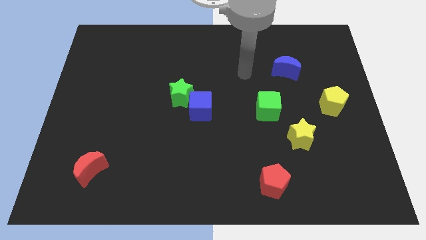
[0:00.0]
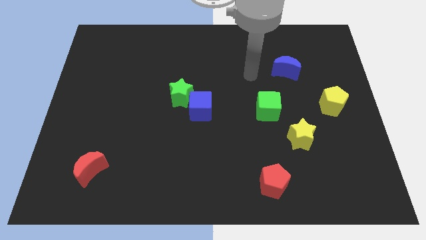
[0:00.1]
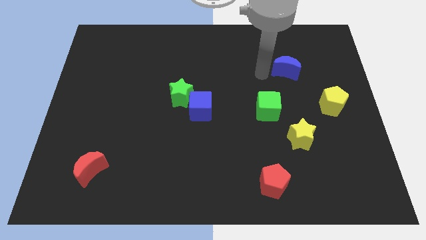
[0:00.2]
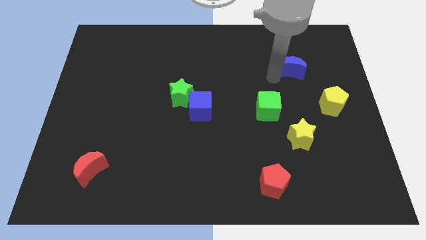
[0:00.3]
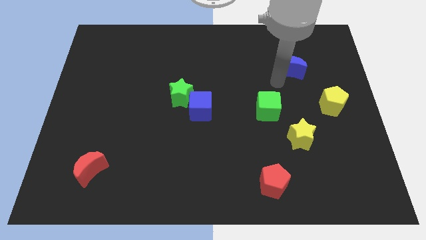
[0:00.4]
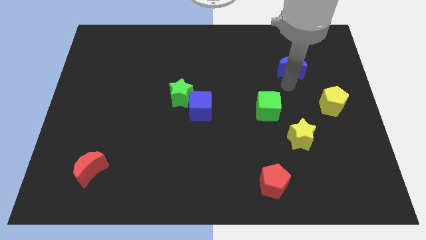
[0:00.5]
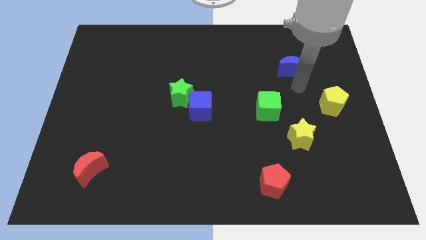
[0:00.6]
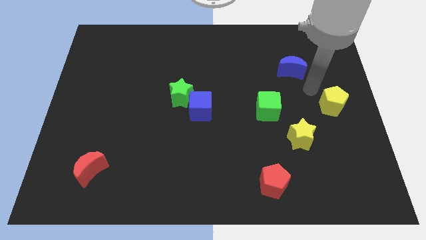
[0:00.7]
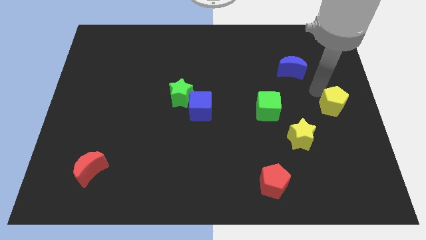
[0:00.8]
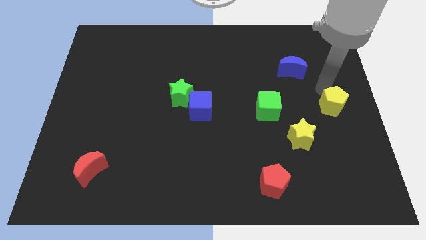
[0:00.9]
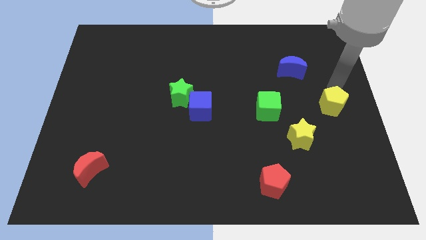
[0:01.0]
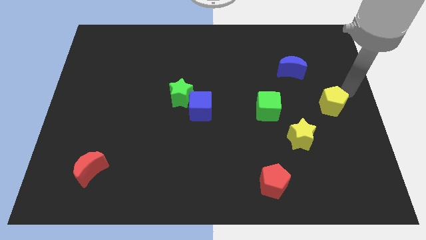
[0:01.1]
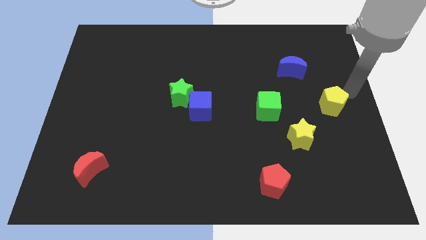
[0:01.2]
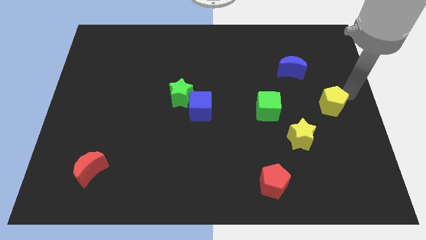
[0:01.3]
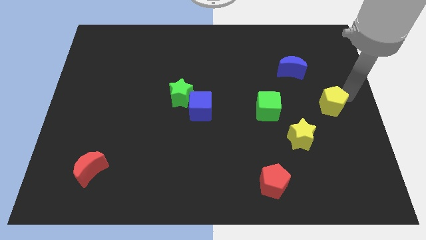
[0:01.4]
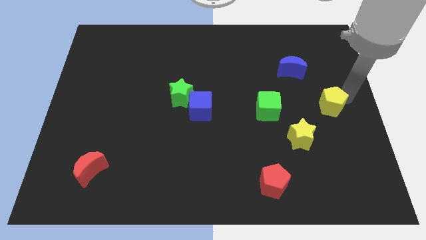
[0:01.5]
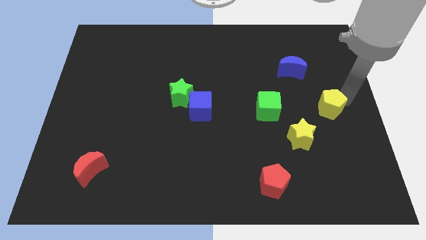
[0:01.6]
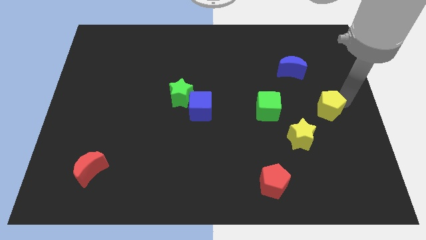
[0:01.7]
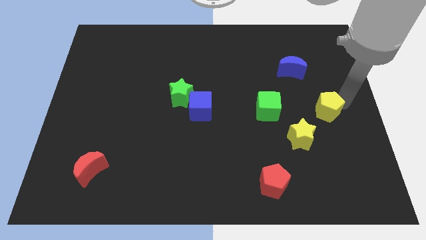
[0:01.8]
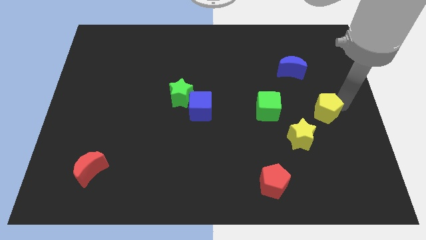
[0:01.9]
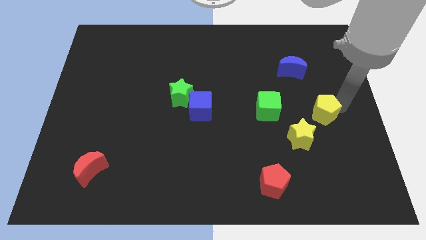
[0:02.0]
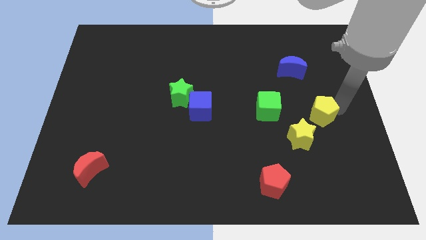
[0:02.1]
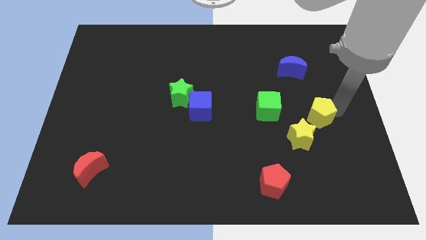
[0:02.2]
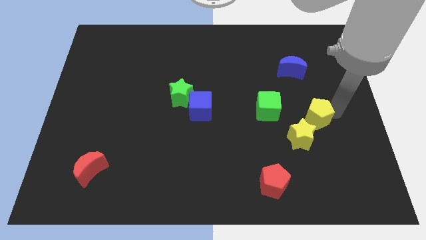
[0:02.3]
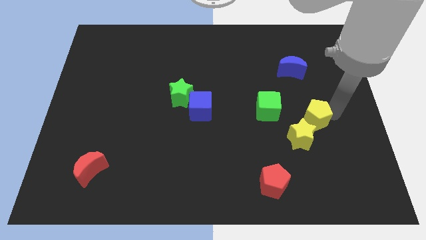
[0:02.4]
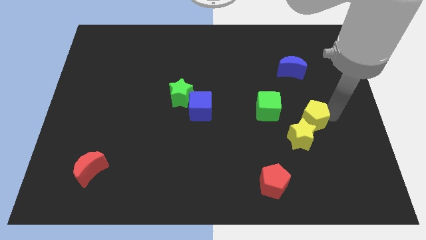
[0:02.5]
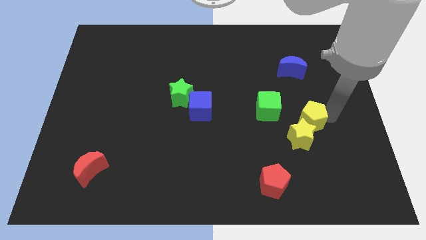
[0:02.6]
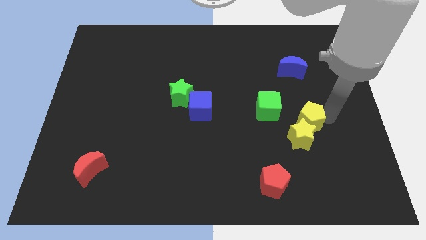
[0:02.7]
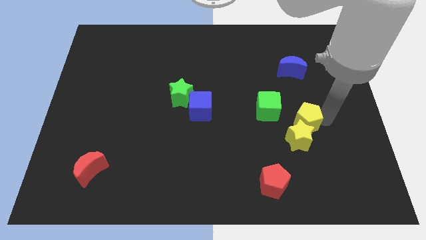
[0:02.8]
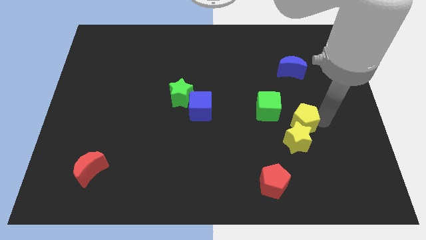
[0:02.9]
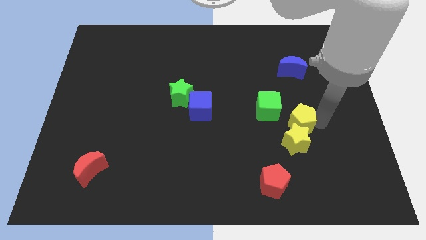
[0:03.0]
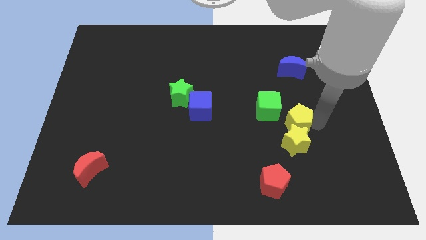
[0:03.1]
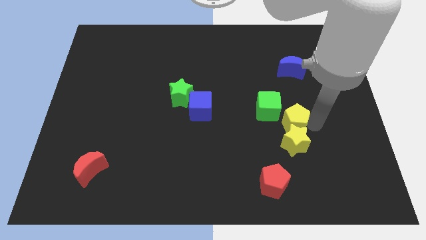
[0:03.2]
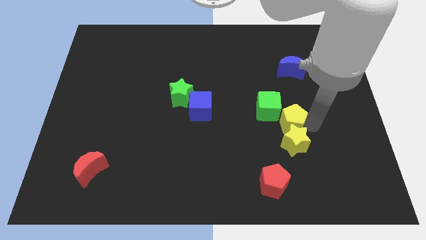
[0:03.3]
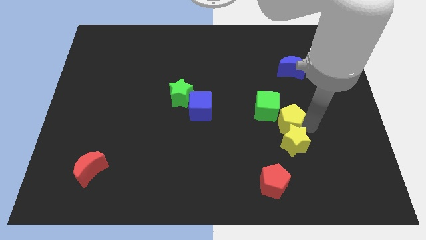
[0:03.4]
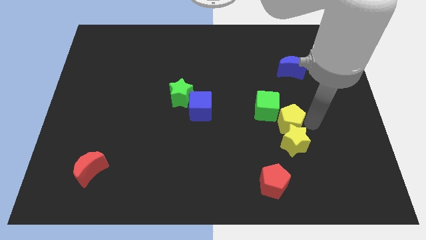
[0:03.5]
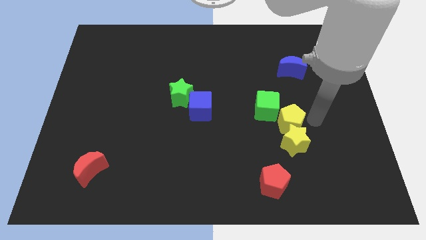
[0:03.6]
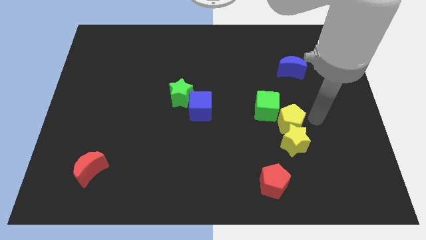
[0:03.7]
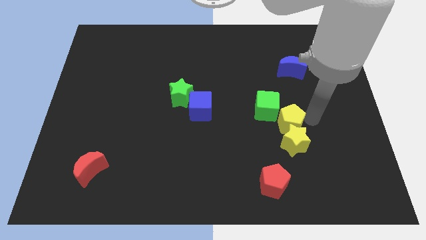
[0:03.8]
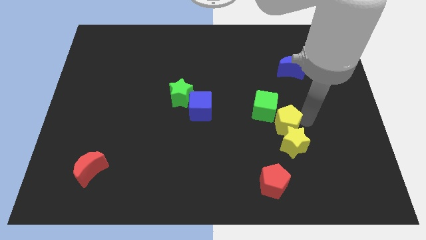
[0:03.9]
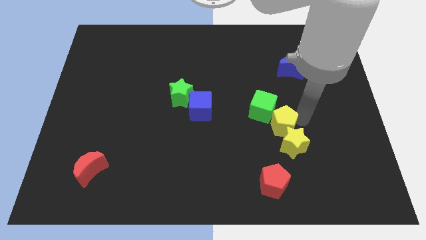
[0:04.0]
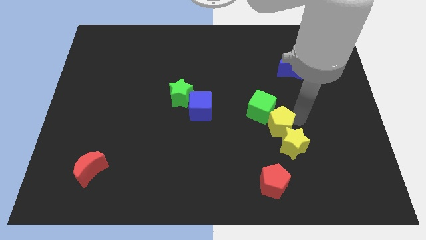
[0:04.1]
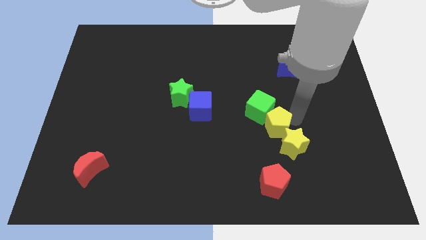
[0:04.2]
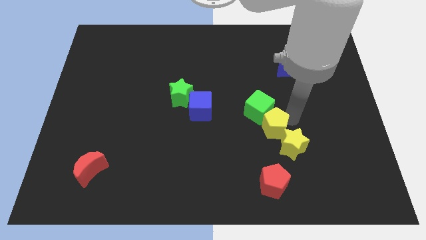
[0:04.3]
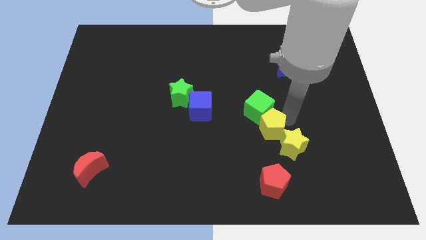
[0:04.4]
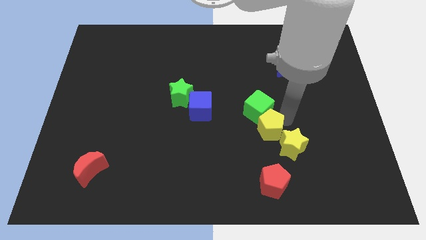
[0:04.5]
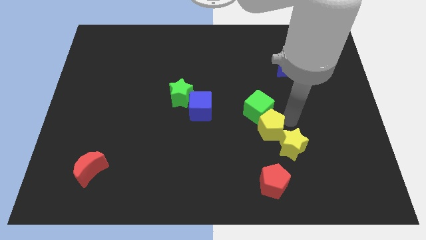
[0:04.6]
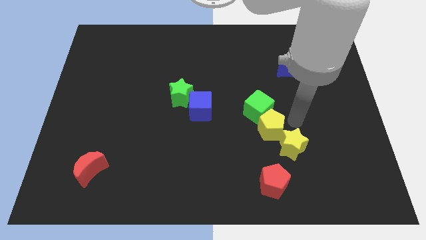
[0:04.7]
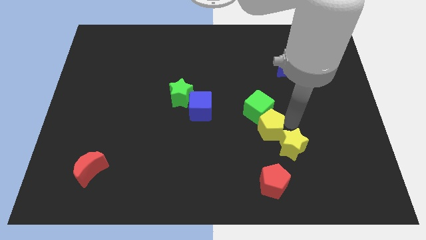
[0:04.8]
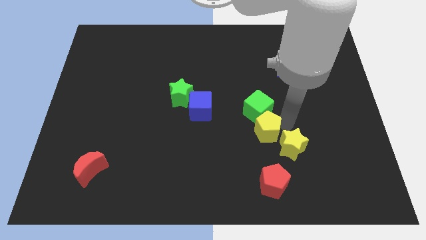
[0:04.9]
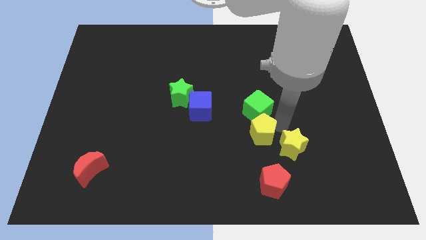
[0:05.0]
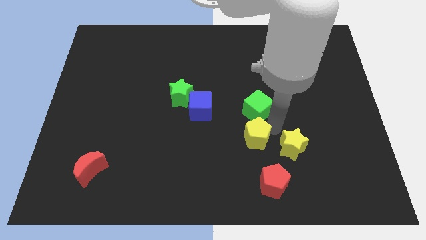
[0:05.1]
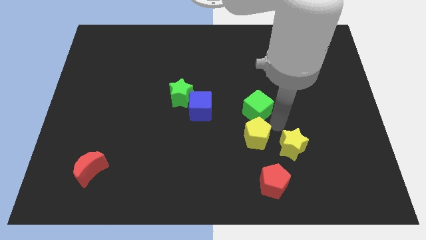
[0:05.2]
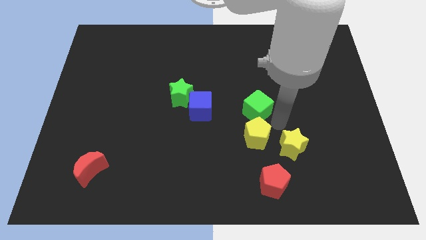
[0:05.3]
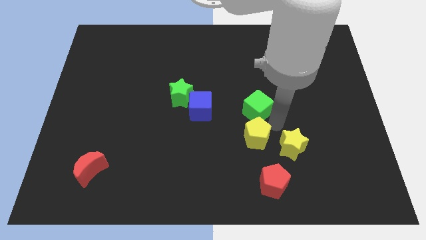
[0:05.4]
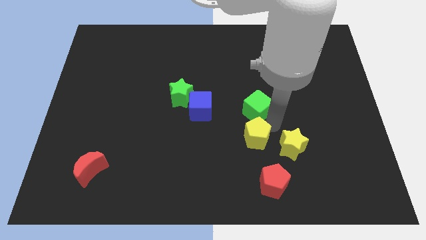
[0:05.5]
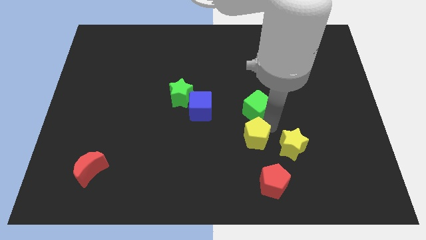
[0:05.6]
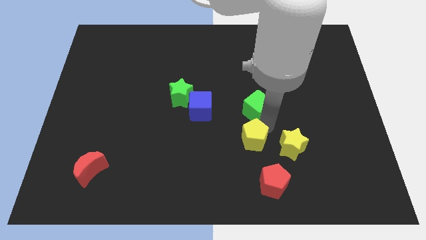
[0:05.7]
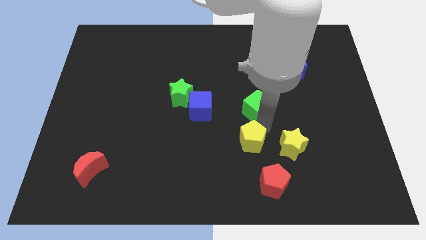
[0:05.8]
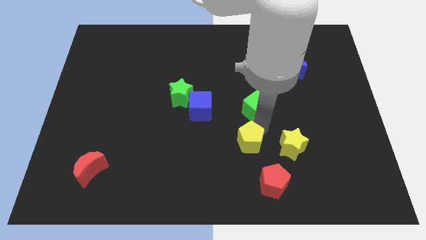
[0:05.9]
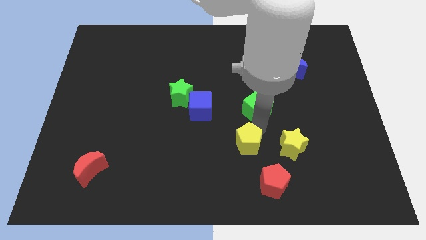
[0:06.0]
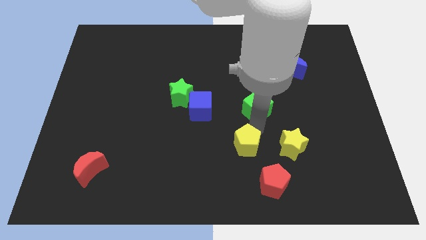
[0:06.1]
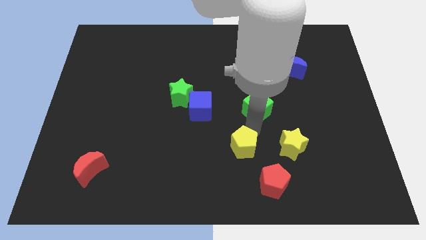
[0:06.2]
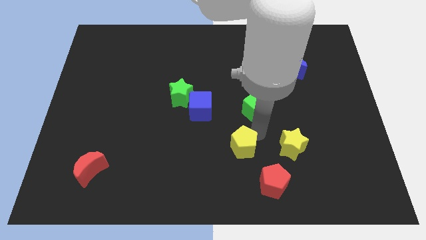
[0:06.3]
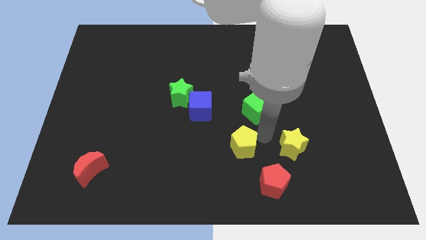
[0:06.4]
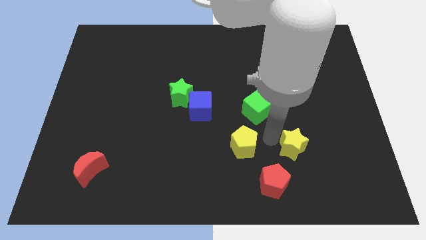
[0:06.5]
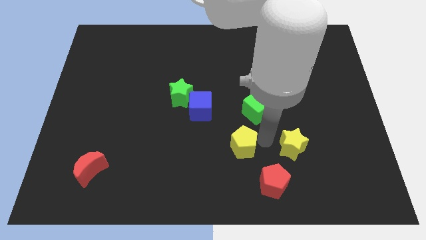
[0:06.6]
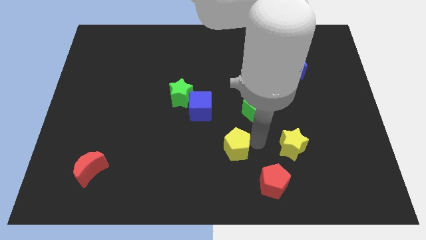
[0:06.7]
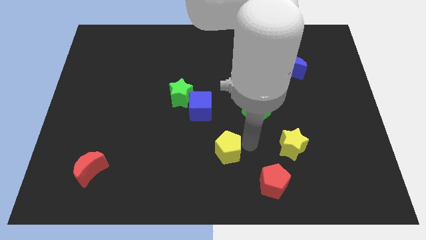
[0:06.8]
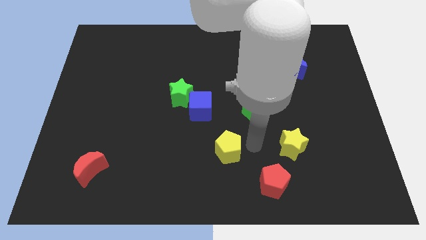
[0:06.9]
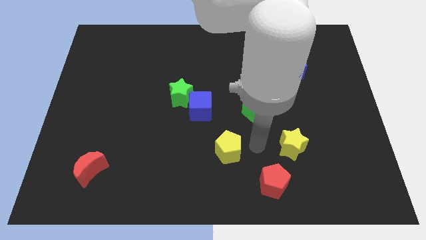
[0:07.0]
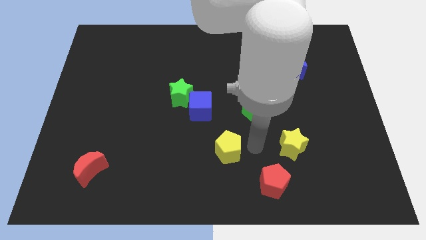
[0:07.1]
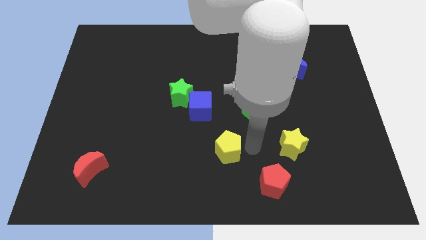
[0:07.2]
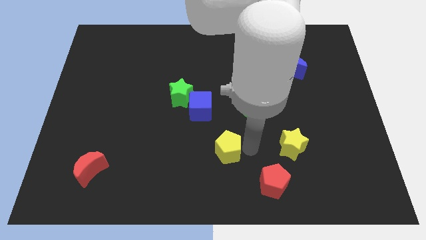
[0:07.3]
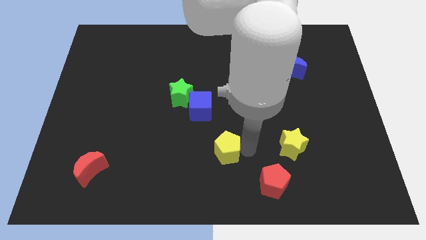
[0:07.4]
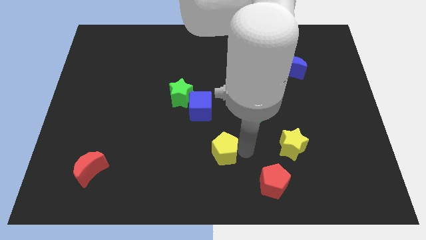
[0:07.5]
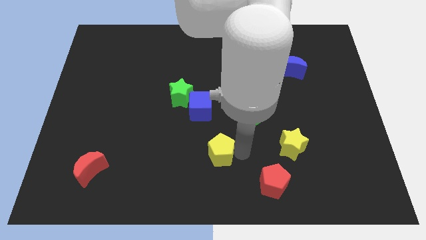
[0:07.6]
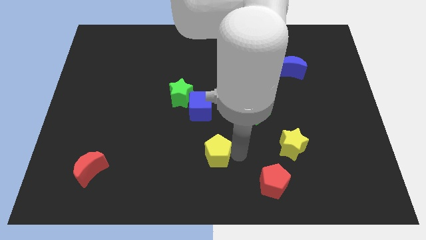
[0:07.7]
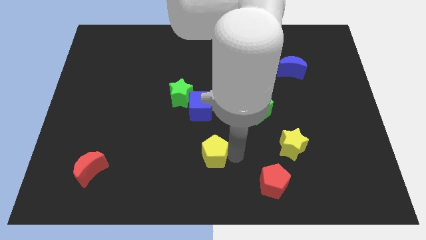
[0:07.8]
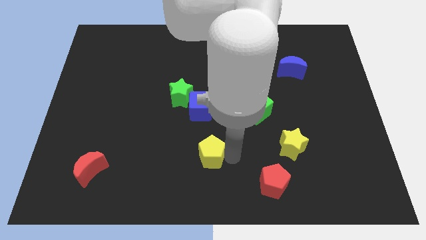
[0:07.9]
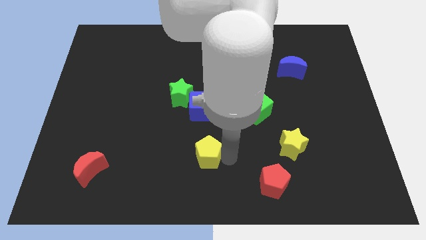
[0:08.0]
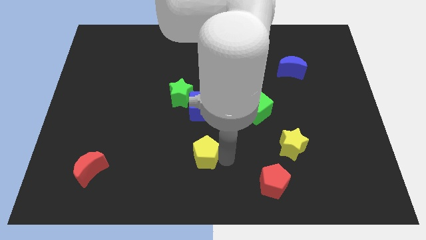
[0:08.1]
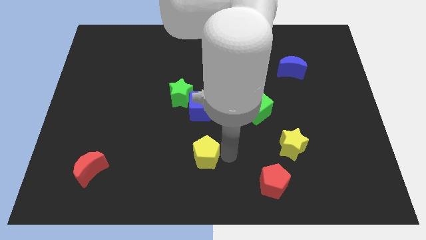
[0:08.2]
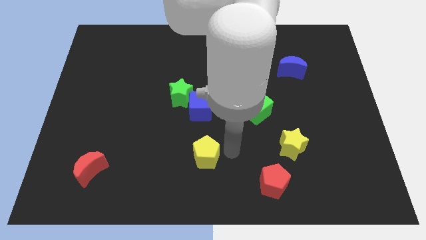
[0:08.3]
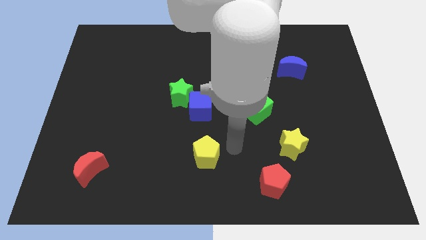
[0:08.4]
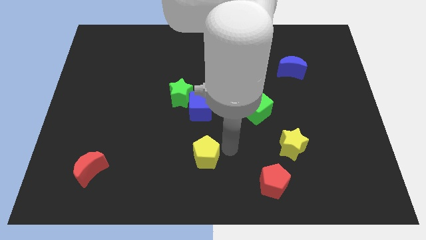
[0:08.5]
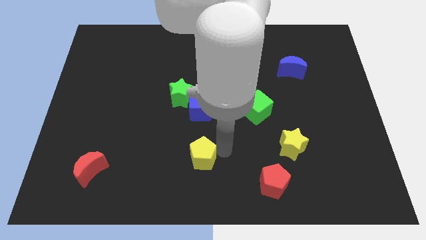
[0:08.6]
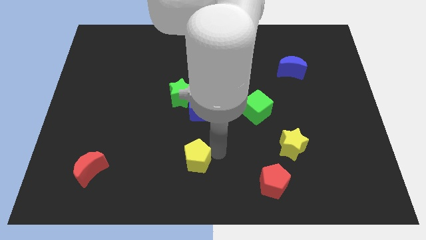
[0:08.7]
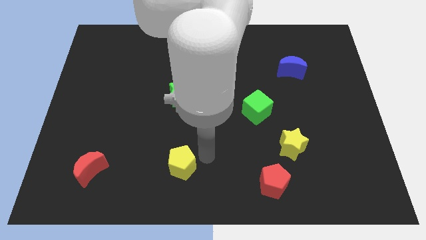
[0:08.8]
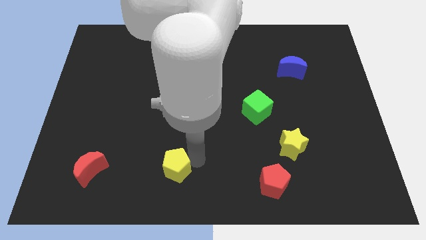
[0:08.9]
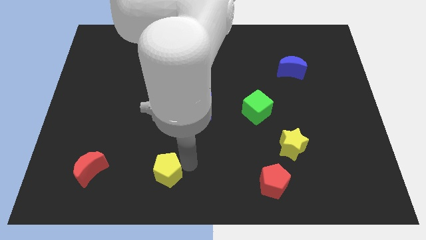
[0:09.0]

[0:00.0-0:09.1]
slide the yellow pentagon right of the red moon
